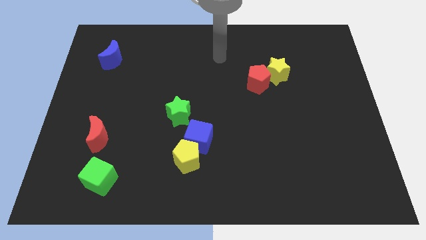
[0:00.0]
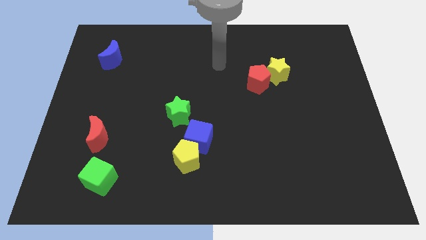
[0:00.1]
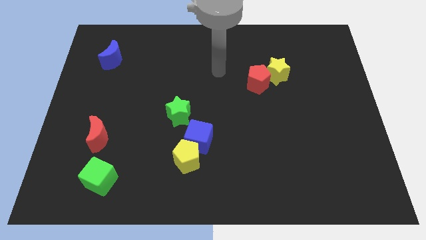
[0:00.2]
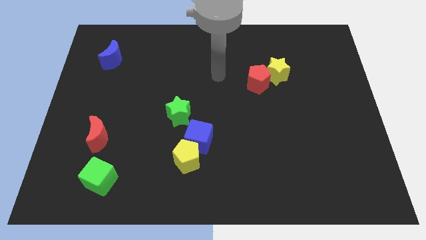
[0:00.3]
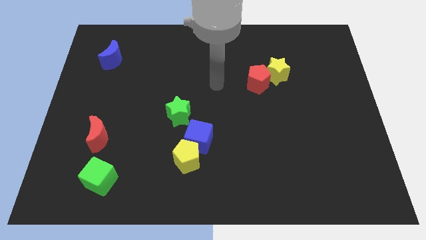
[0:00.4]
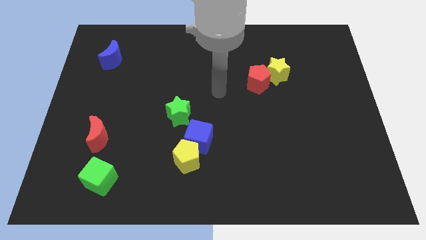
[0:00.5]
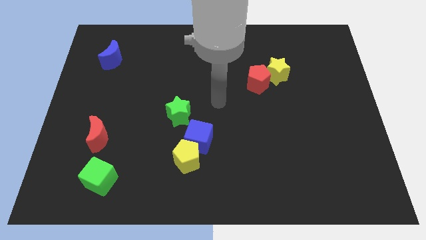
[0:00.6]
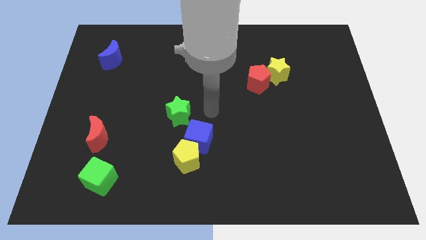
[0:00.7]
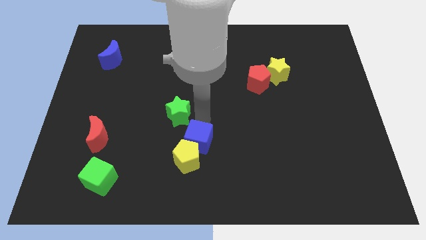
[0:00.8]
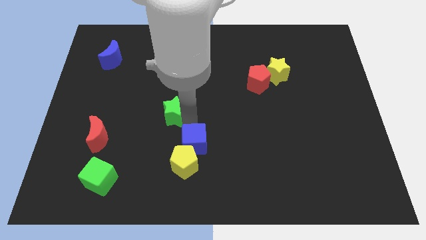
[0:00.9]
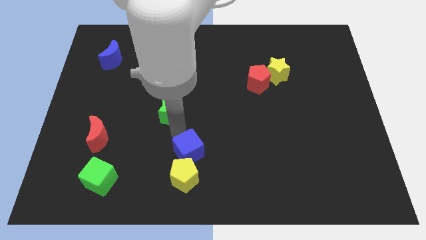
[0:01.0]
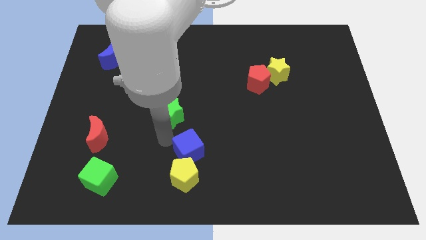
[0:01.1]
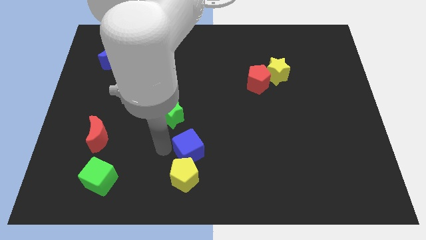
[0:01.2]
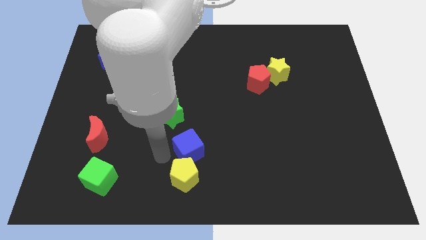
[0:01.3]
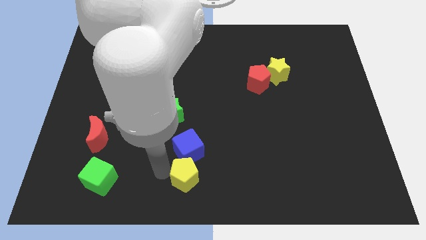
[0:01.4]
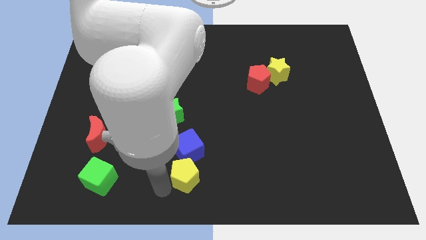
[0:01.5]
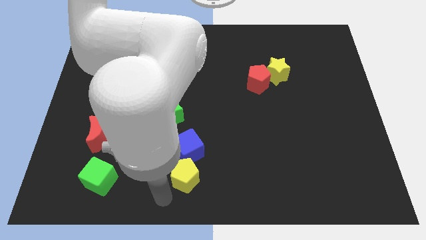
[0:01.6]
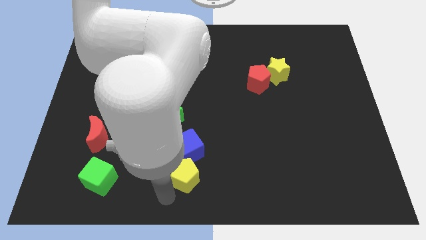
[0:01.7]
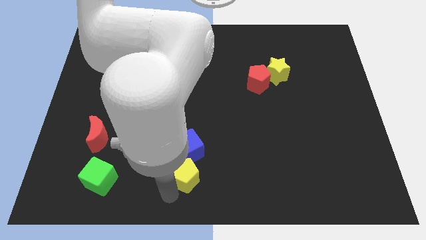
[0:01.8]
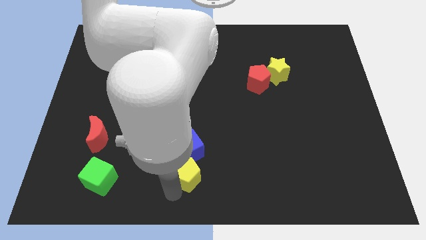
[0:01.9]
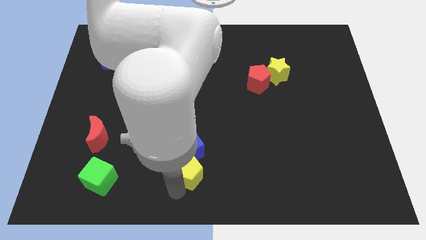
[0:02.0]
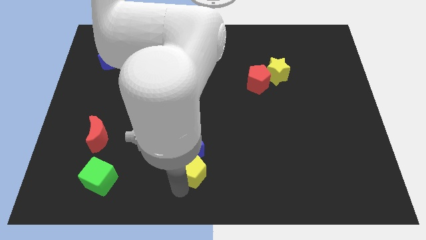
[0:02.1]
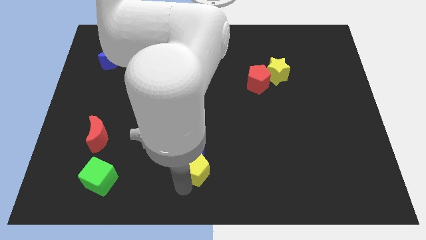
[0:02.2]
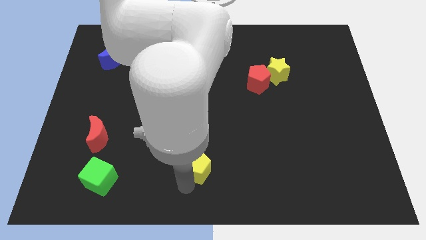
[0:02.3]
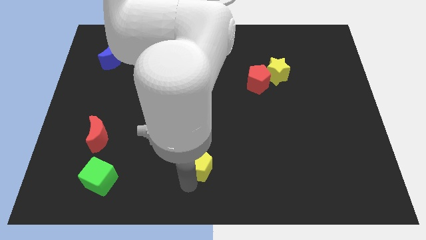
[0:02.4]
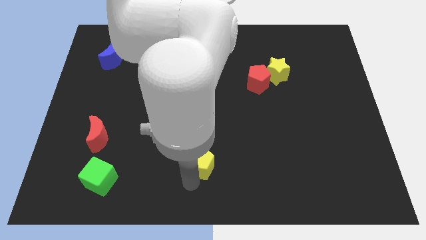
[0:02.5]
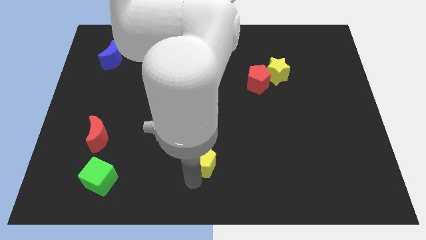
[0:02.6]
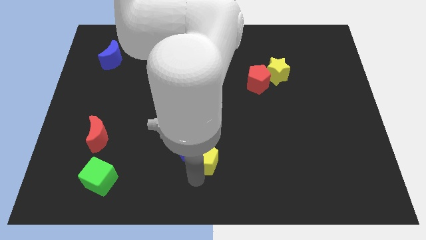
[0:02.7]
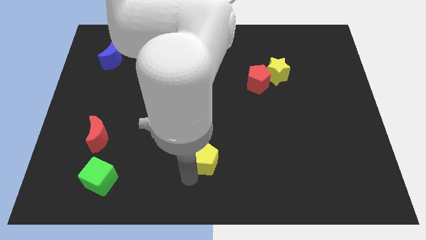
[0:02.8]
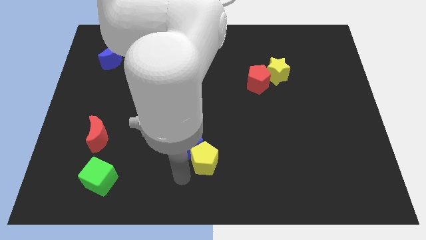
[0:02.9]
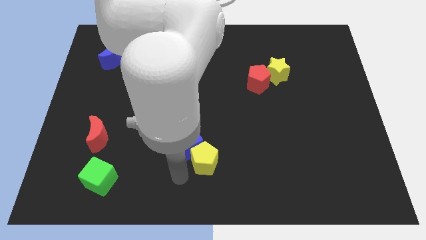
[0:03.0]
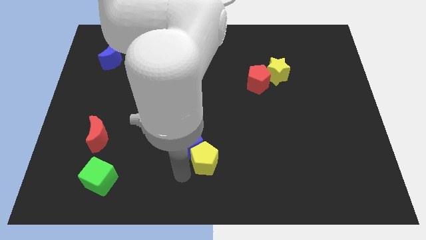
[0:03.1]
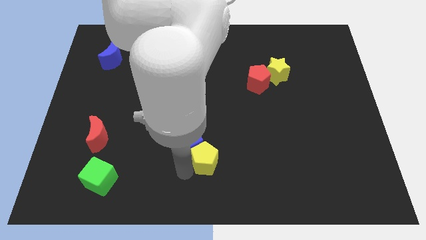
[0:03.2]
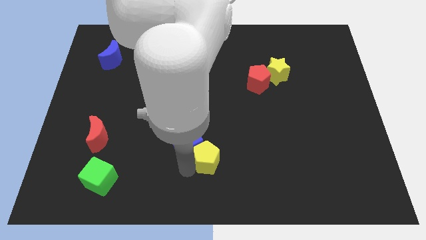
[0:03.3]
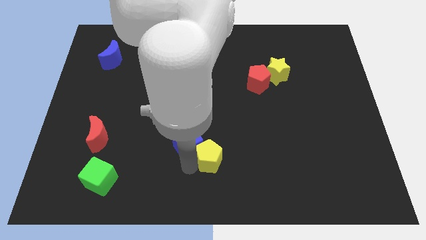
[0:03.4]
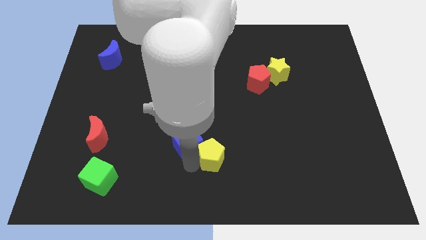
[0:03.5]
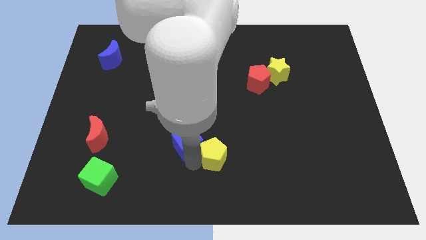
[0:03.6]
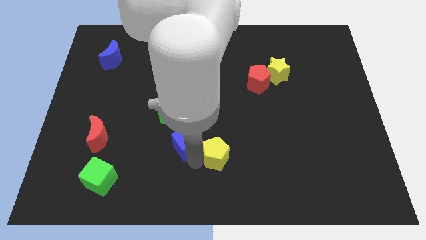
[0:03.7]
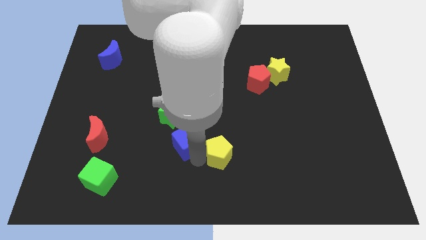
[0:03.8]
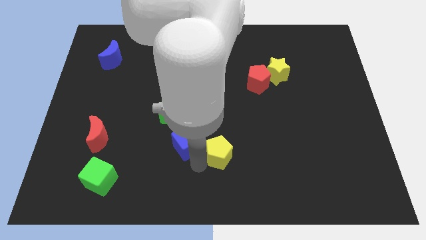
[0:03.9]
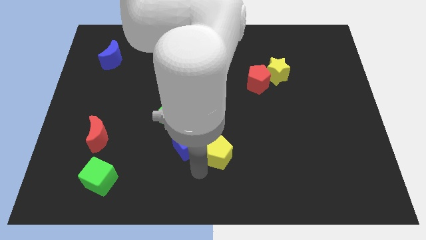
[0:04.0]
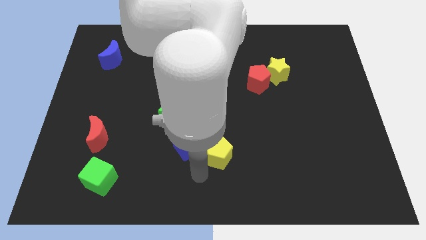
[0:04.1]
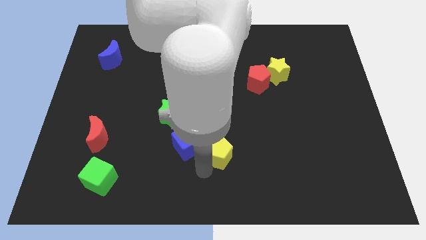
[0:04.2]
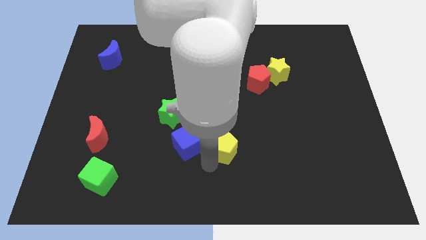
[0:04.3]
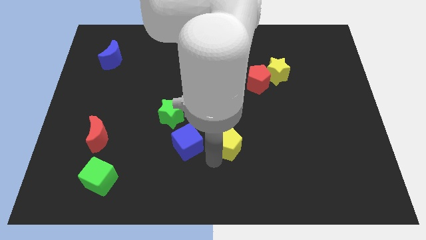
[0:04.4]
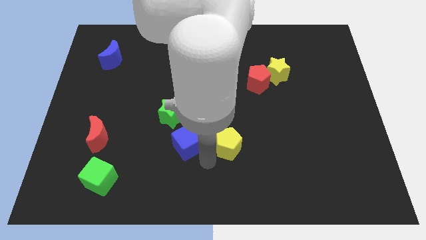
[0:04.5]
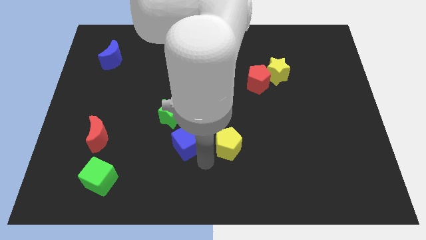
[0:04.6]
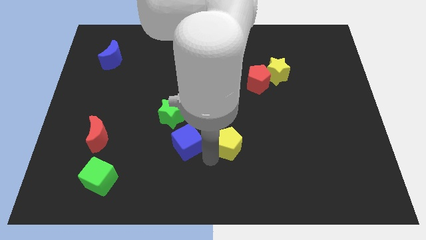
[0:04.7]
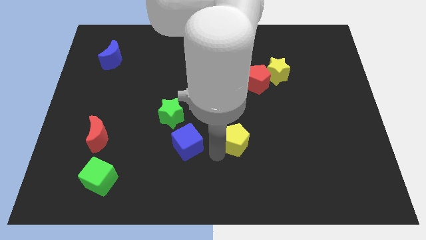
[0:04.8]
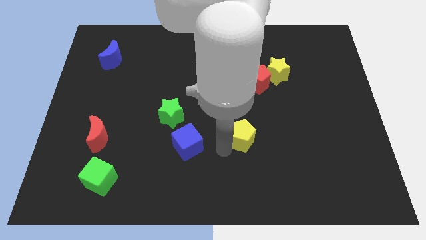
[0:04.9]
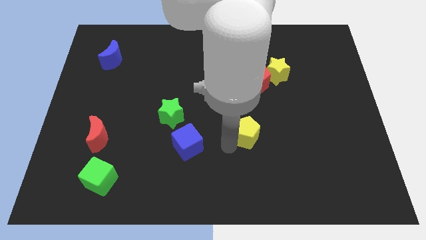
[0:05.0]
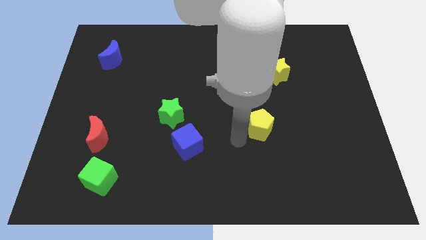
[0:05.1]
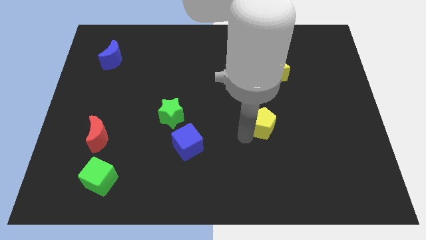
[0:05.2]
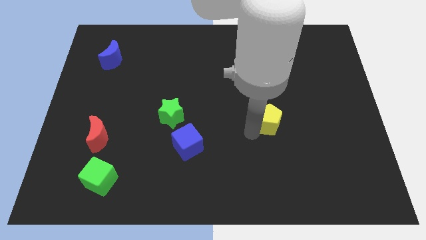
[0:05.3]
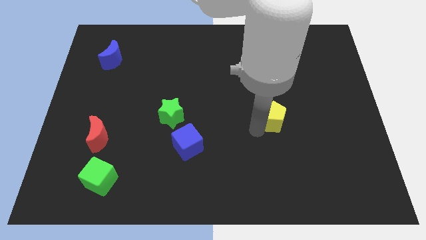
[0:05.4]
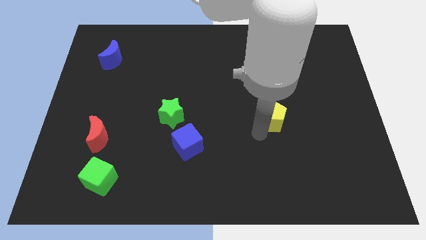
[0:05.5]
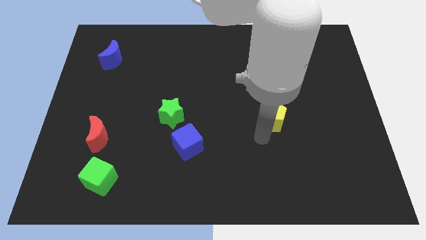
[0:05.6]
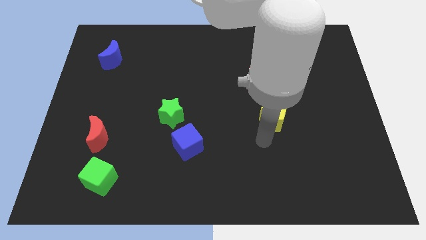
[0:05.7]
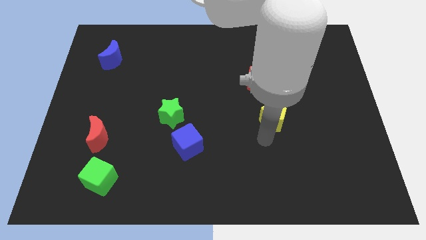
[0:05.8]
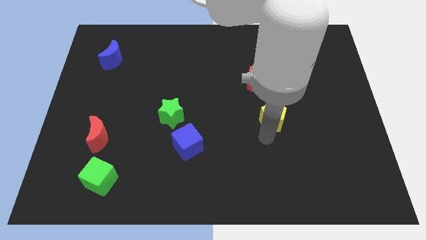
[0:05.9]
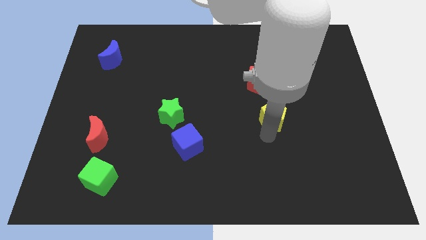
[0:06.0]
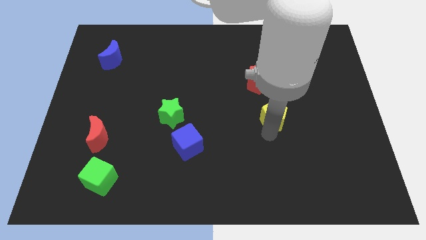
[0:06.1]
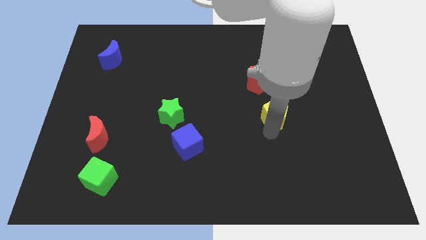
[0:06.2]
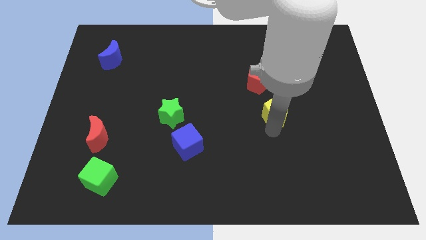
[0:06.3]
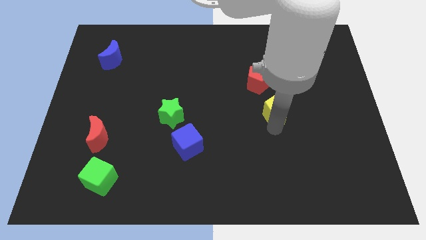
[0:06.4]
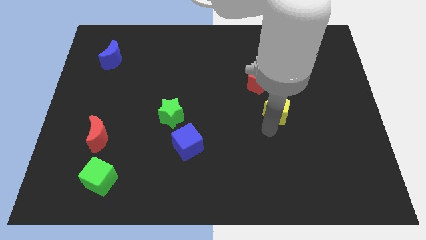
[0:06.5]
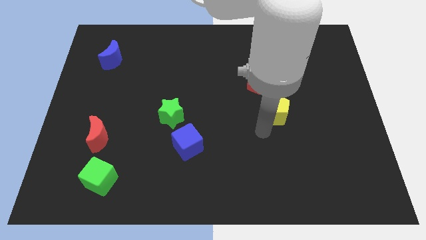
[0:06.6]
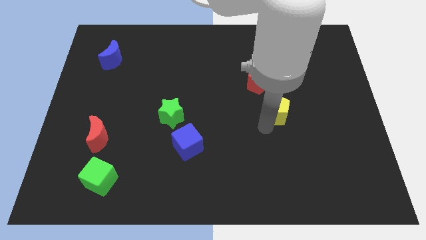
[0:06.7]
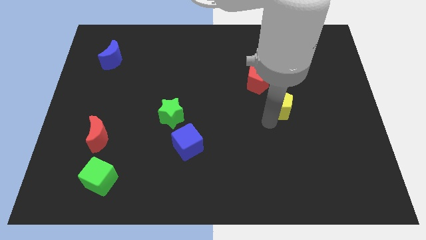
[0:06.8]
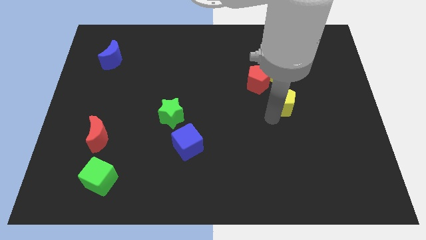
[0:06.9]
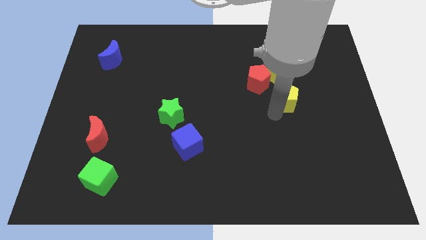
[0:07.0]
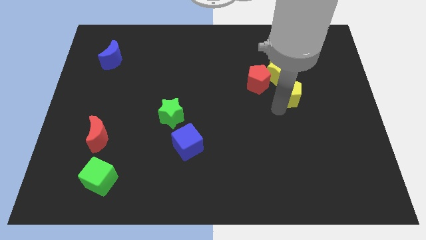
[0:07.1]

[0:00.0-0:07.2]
slide the yellow pentagon just right of the red pentagon

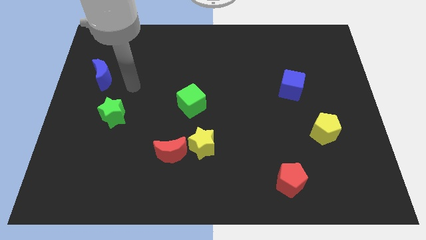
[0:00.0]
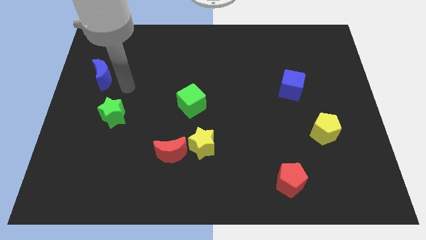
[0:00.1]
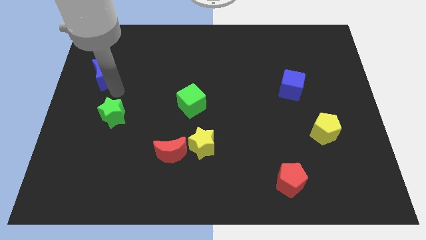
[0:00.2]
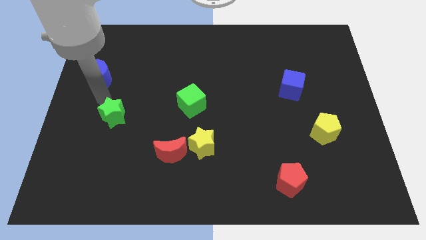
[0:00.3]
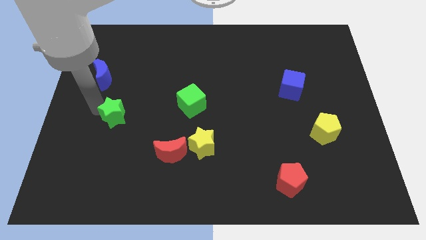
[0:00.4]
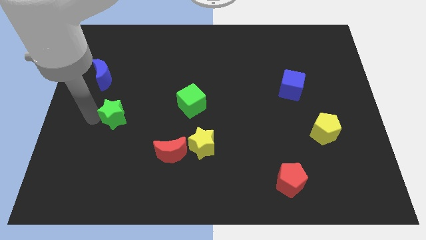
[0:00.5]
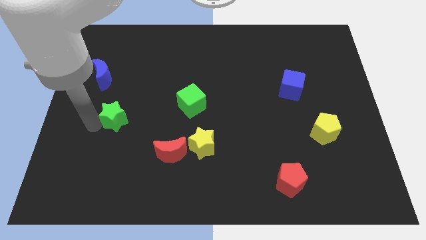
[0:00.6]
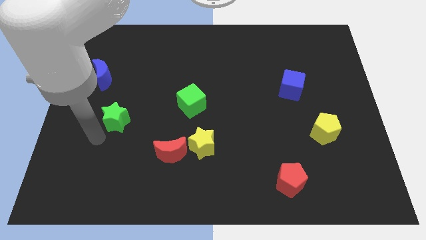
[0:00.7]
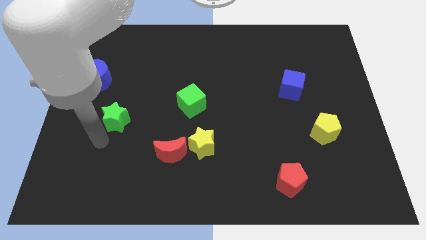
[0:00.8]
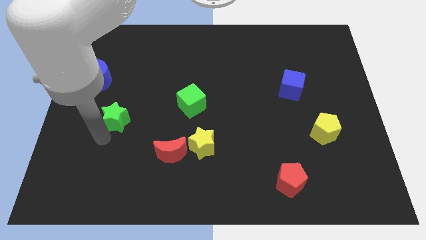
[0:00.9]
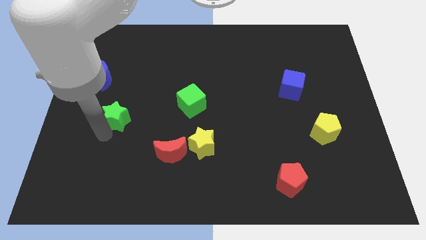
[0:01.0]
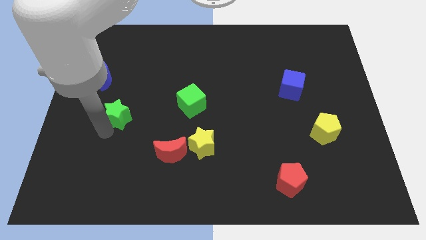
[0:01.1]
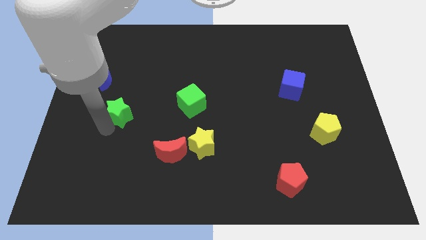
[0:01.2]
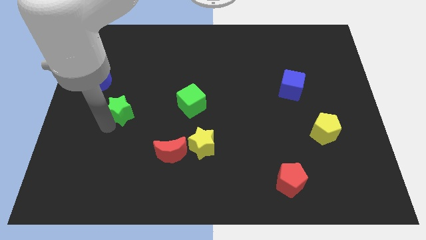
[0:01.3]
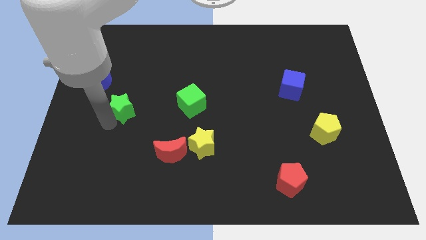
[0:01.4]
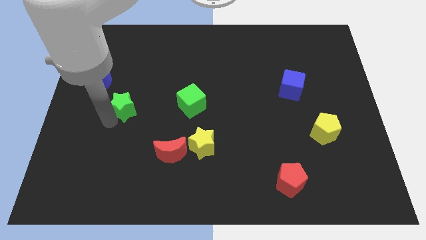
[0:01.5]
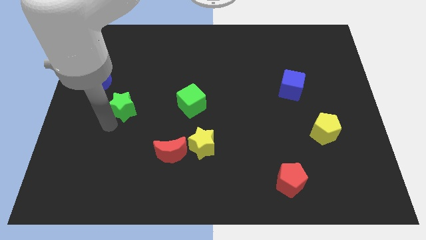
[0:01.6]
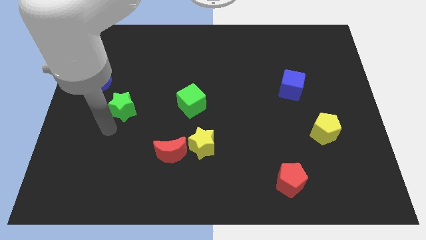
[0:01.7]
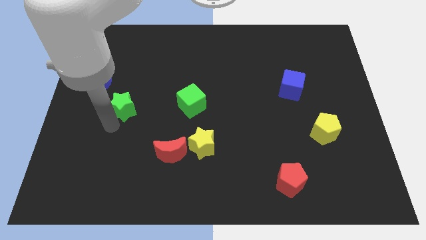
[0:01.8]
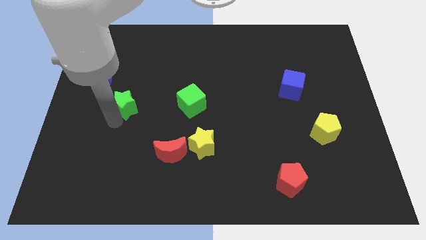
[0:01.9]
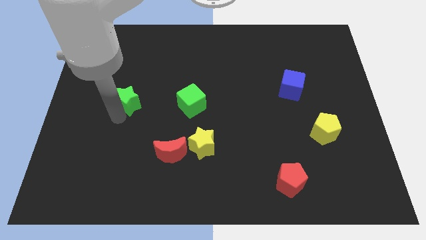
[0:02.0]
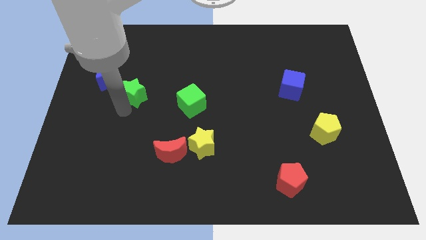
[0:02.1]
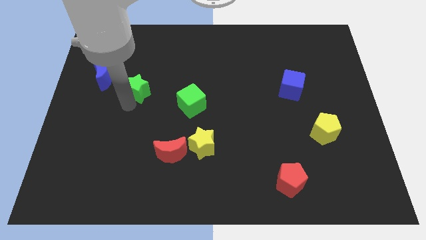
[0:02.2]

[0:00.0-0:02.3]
push the green star right of the blue moon
